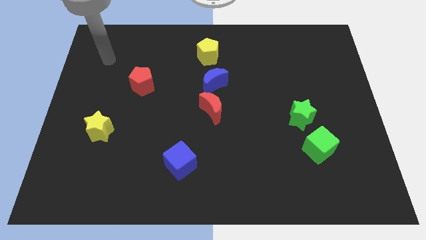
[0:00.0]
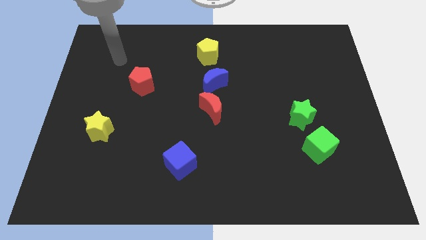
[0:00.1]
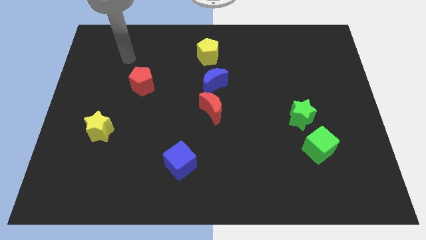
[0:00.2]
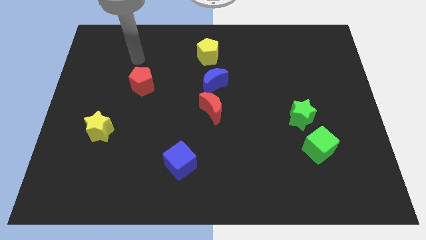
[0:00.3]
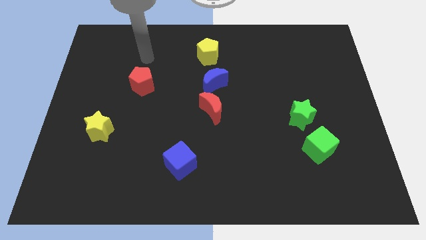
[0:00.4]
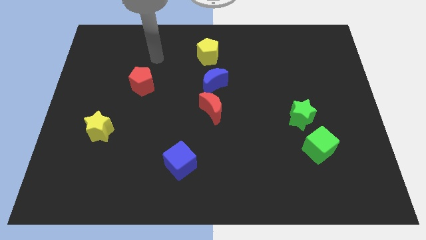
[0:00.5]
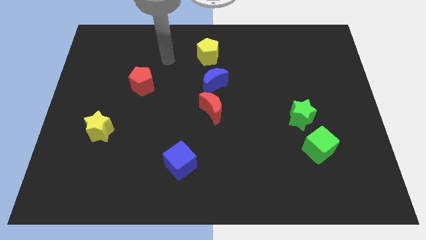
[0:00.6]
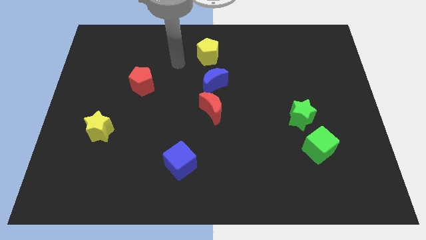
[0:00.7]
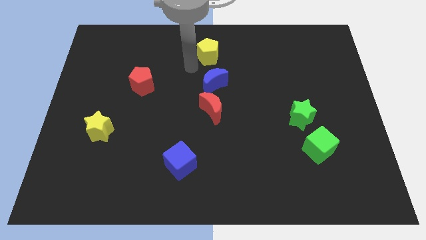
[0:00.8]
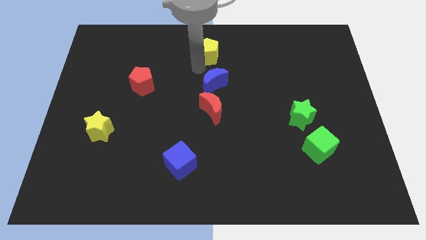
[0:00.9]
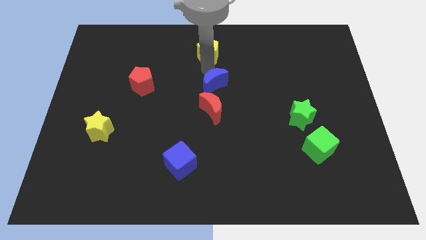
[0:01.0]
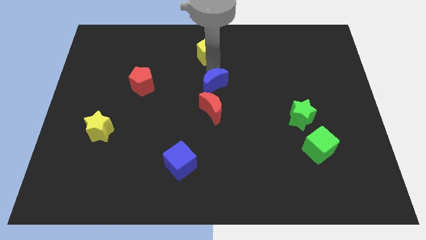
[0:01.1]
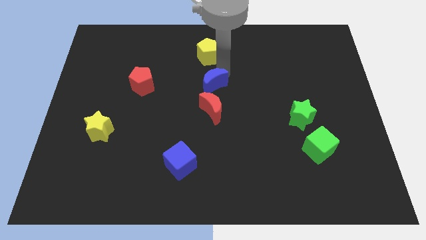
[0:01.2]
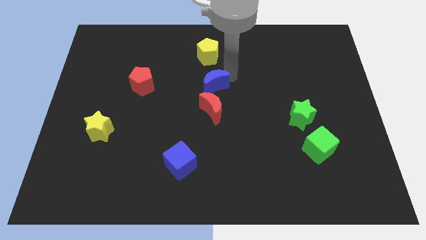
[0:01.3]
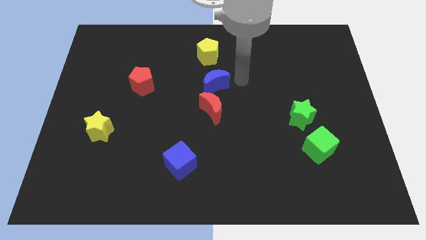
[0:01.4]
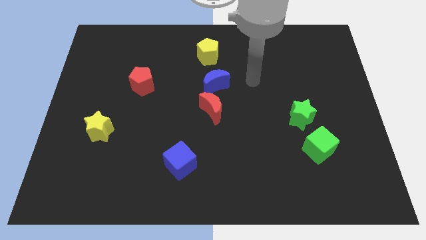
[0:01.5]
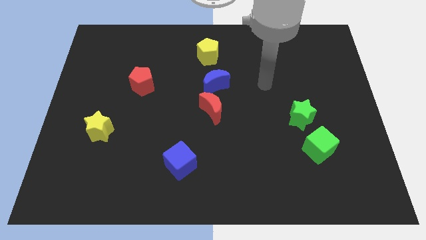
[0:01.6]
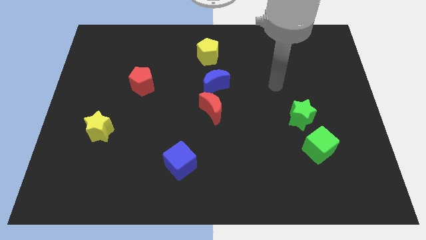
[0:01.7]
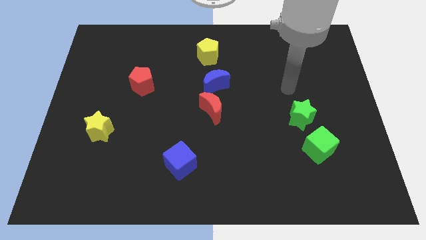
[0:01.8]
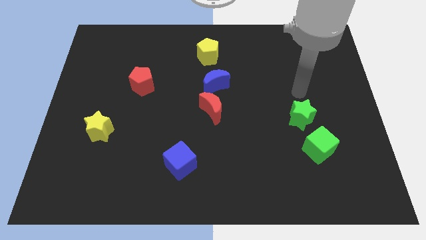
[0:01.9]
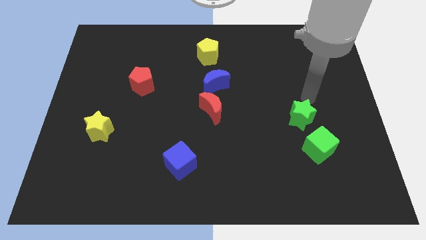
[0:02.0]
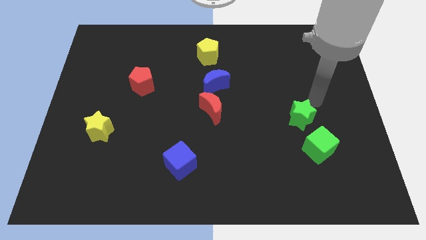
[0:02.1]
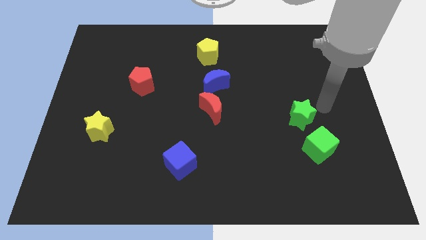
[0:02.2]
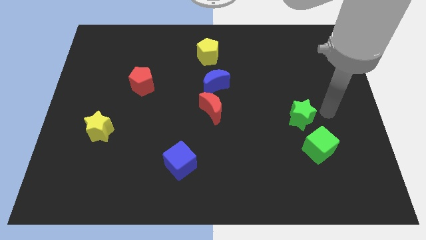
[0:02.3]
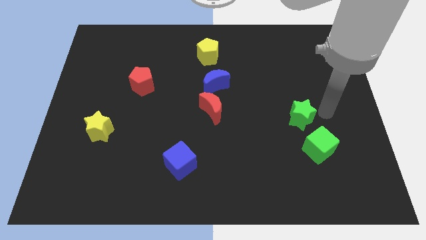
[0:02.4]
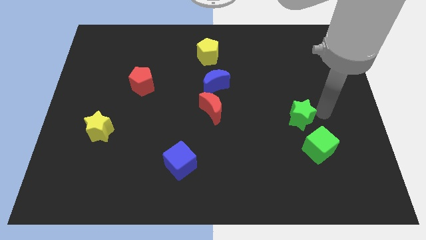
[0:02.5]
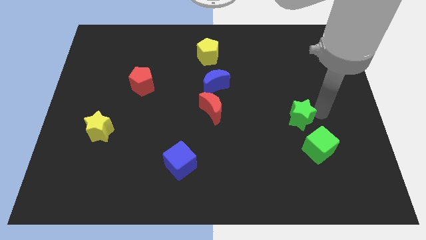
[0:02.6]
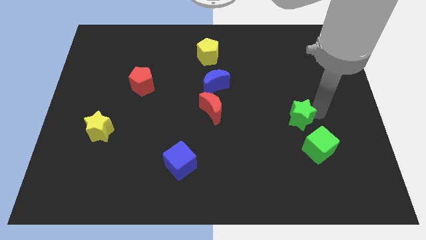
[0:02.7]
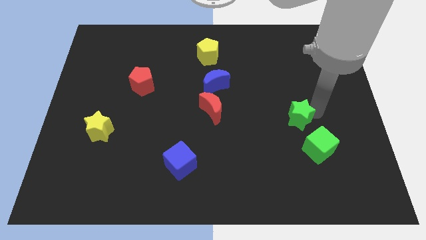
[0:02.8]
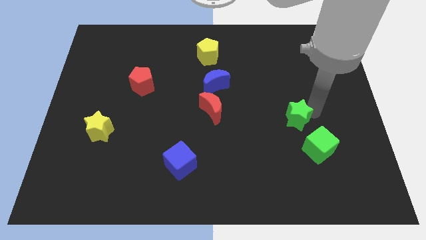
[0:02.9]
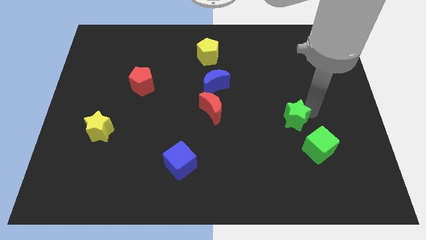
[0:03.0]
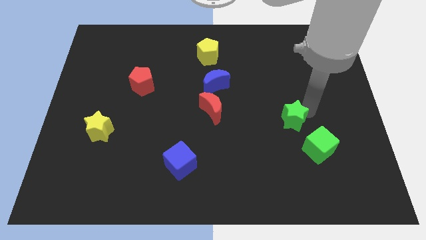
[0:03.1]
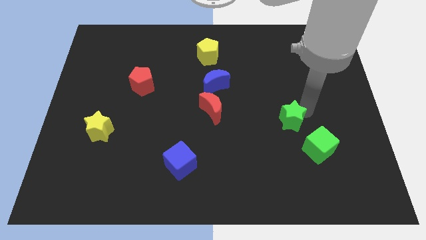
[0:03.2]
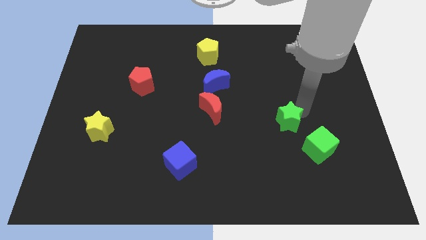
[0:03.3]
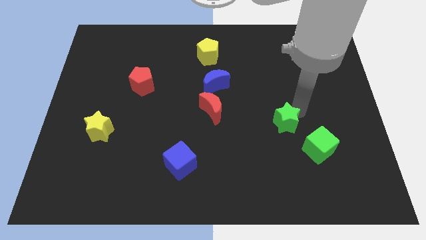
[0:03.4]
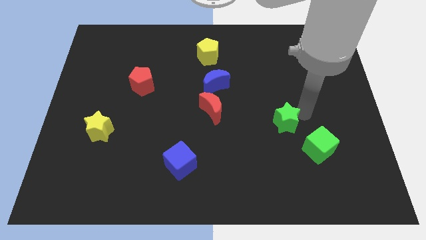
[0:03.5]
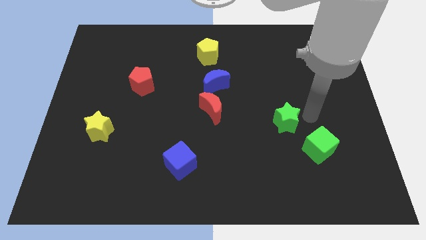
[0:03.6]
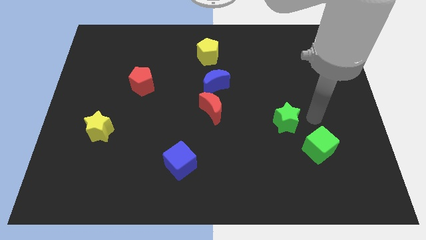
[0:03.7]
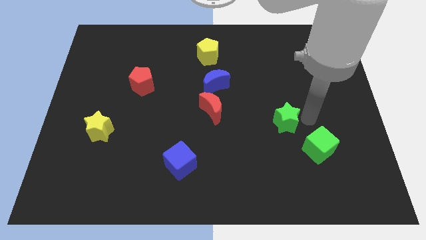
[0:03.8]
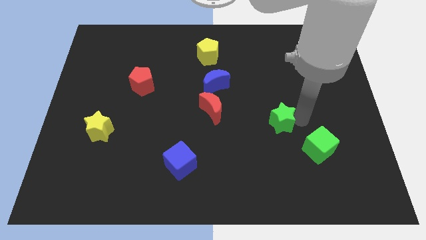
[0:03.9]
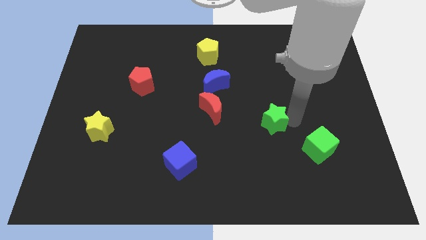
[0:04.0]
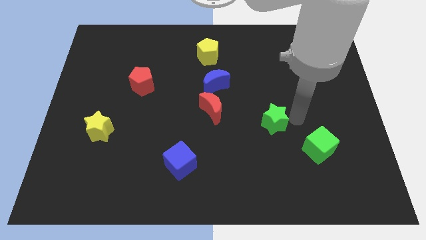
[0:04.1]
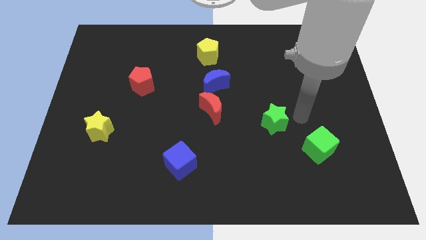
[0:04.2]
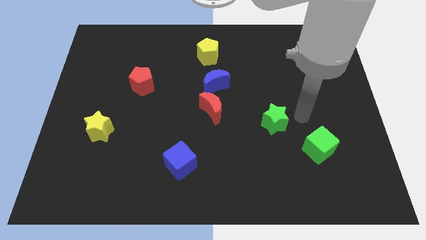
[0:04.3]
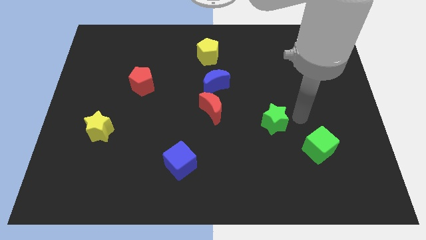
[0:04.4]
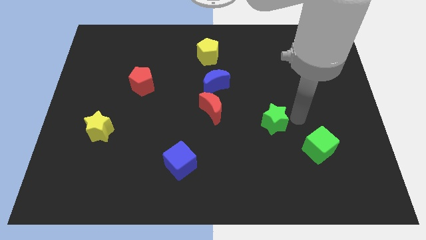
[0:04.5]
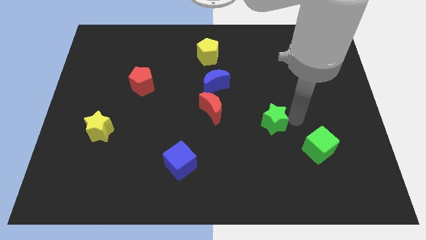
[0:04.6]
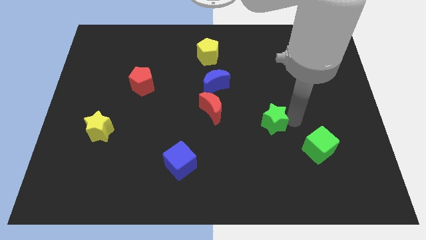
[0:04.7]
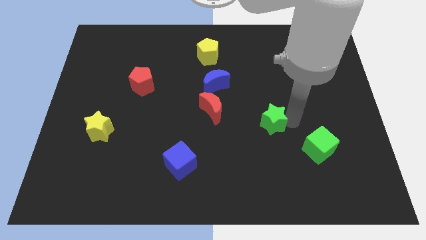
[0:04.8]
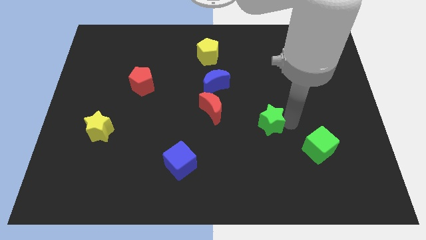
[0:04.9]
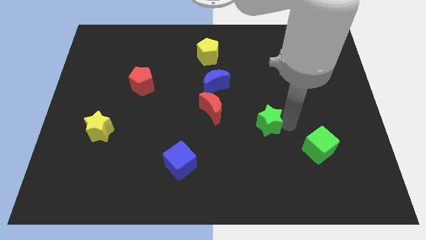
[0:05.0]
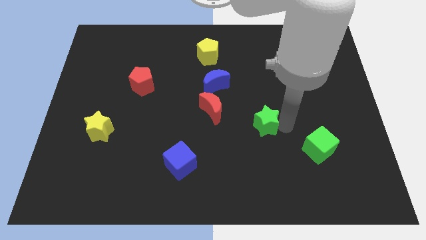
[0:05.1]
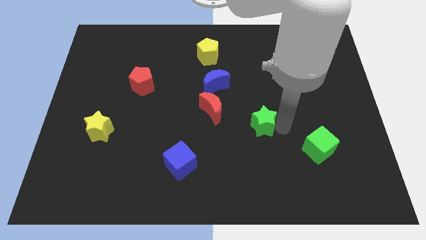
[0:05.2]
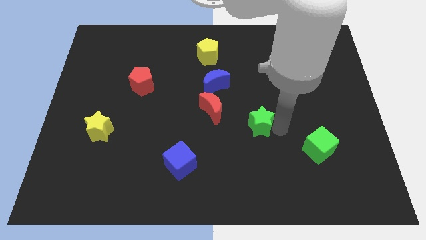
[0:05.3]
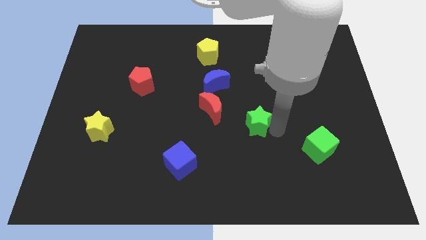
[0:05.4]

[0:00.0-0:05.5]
move the green star to the bottom right of the red moon

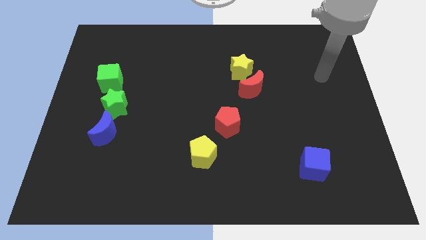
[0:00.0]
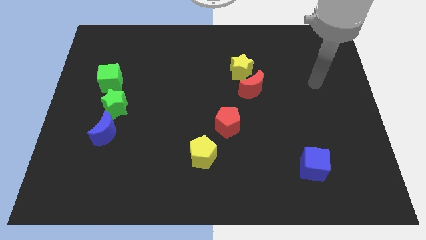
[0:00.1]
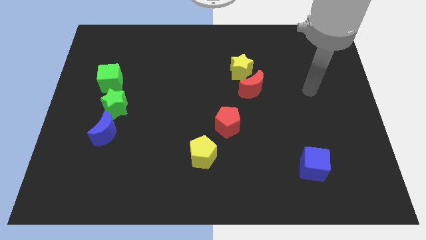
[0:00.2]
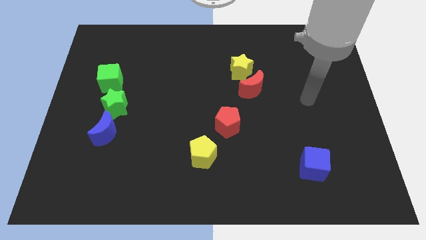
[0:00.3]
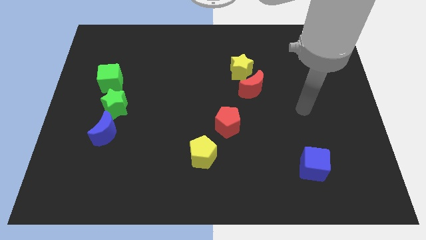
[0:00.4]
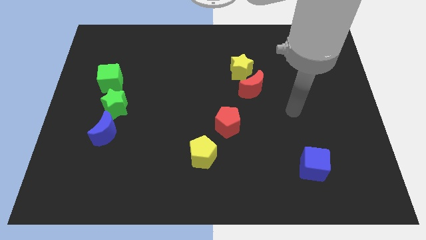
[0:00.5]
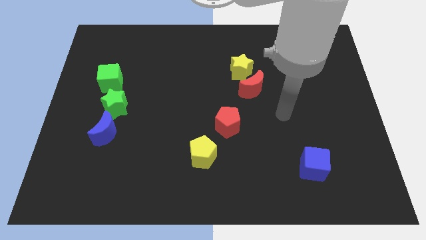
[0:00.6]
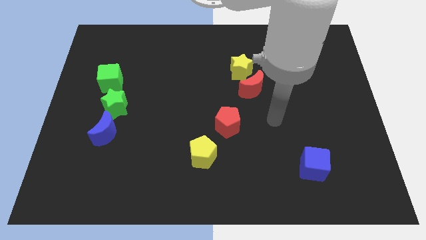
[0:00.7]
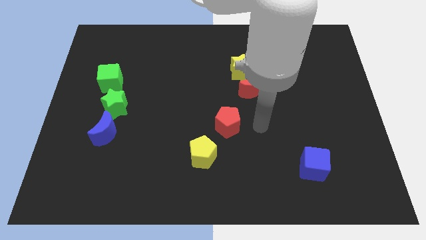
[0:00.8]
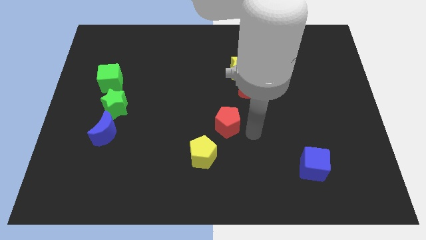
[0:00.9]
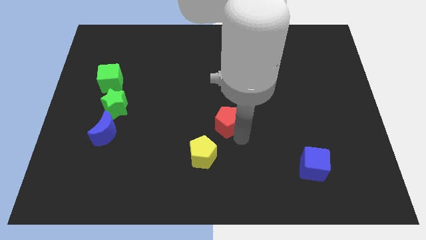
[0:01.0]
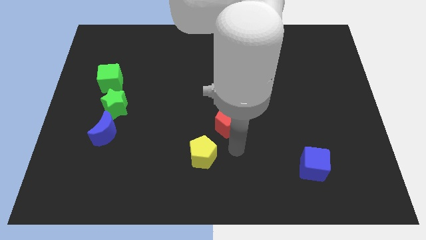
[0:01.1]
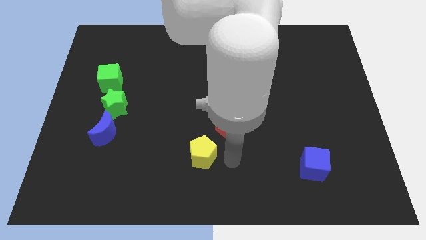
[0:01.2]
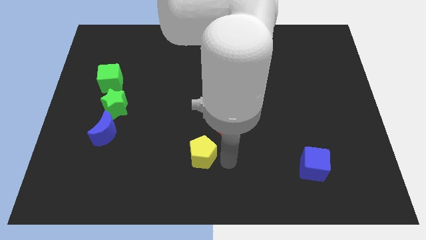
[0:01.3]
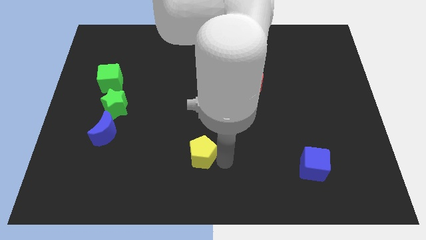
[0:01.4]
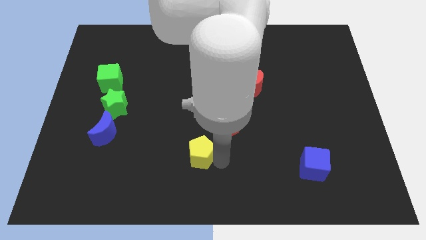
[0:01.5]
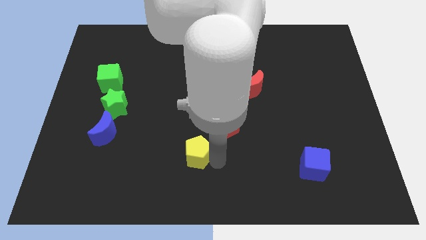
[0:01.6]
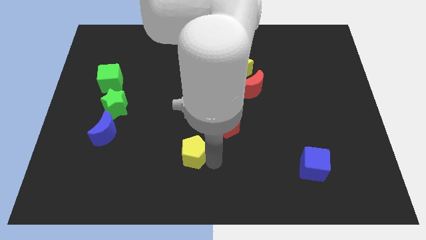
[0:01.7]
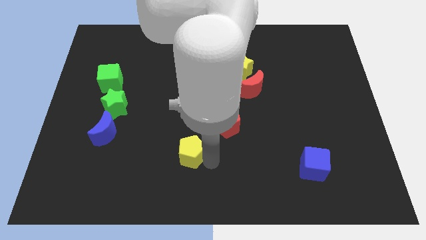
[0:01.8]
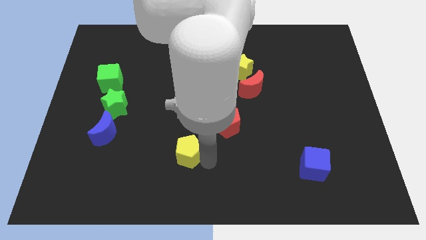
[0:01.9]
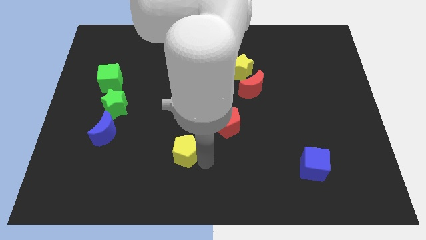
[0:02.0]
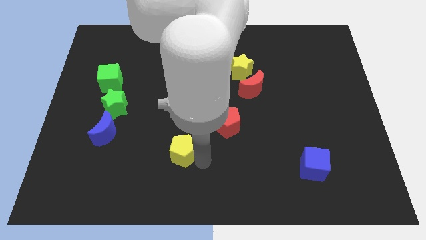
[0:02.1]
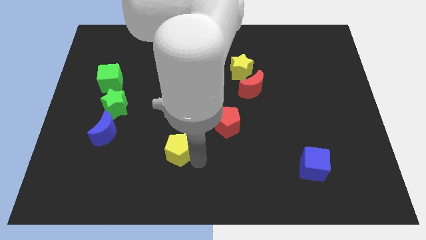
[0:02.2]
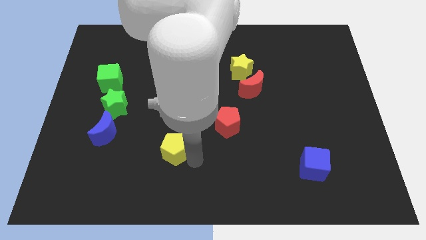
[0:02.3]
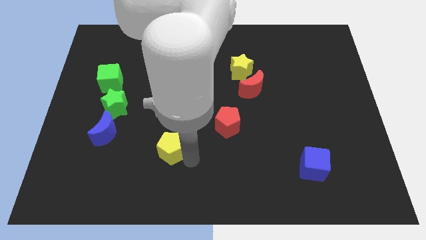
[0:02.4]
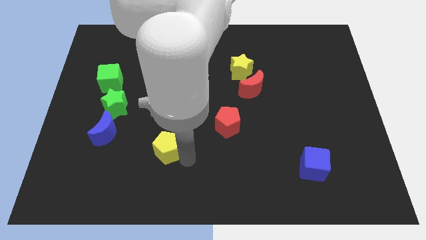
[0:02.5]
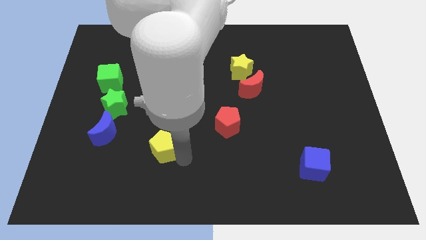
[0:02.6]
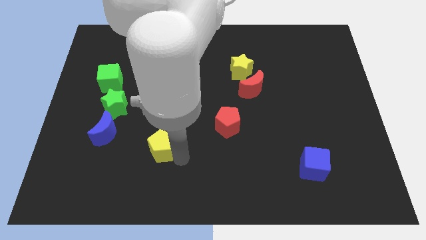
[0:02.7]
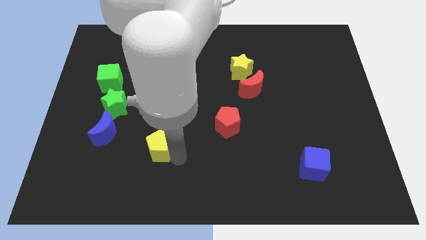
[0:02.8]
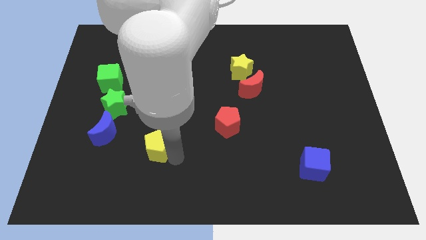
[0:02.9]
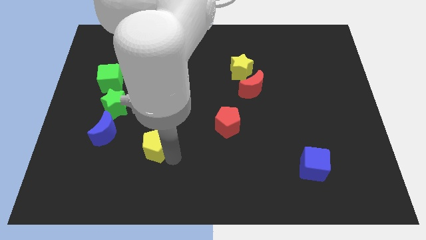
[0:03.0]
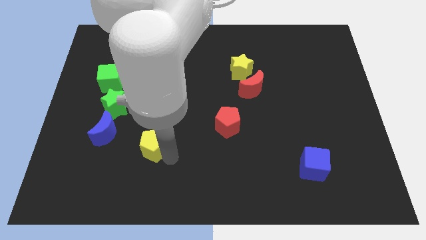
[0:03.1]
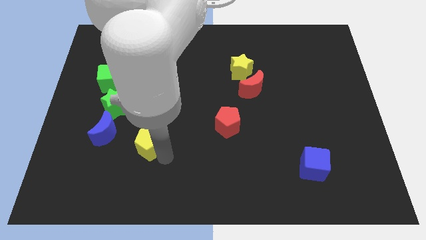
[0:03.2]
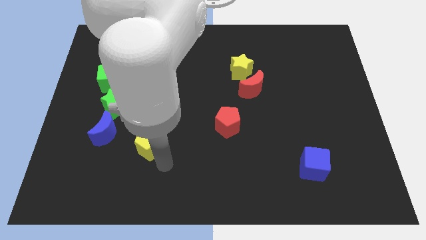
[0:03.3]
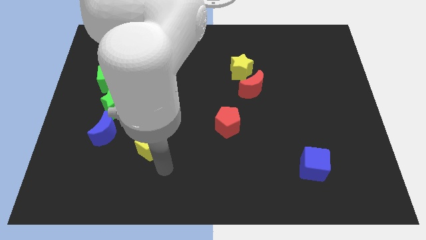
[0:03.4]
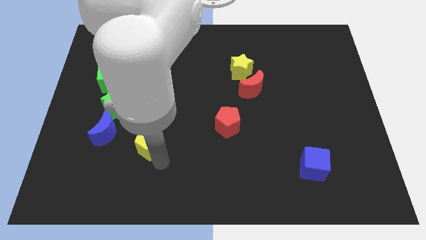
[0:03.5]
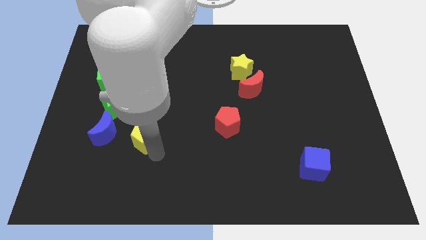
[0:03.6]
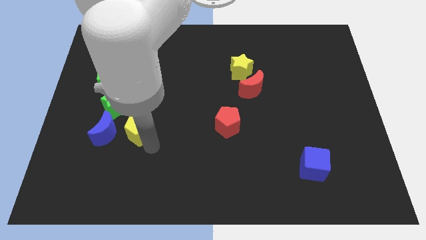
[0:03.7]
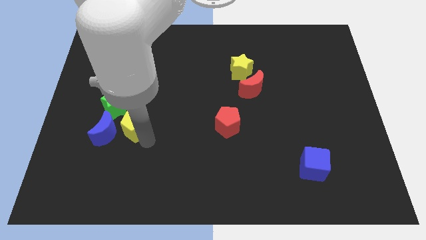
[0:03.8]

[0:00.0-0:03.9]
slide the yellow pentagon to the top right of the blue moon
